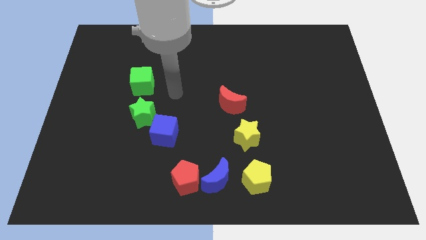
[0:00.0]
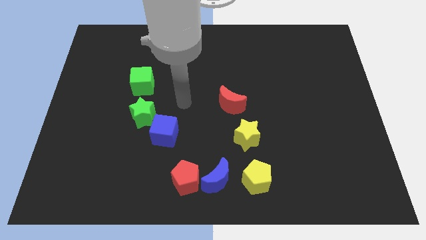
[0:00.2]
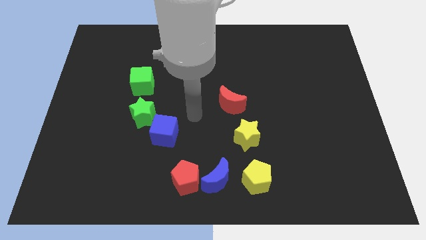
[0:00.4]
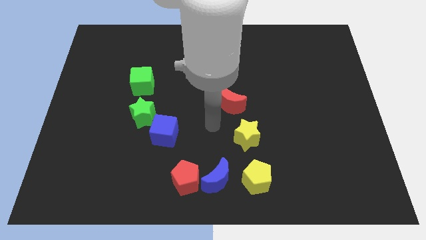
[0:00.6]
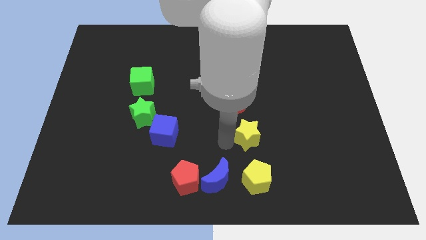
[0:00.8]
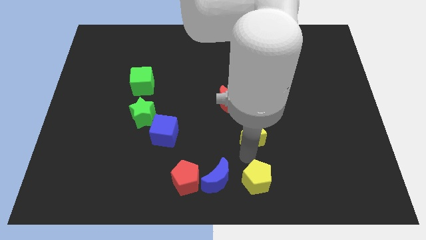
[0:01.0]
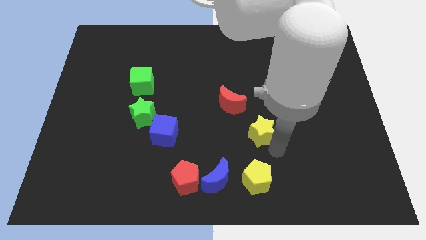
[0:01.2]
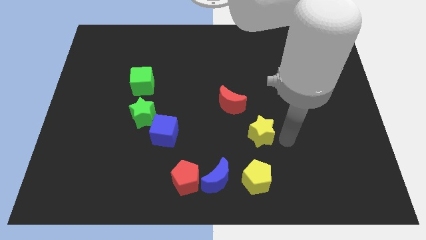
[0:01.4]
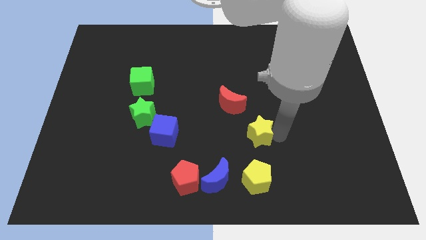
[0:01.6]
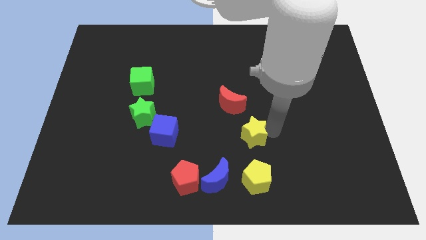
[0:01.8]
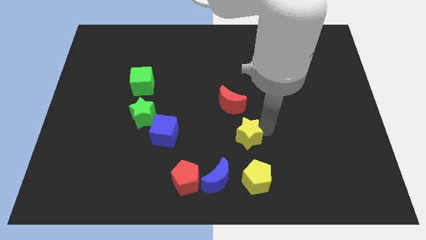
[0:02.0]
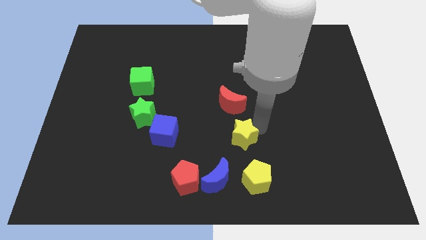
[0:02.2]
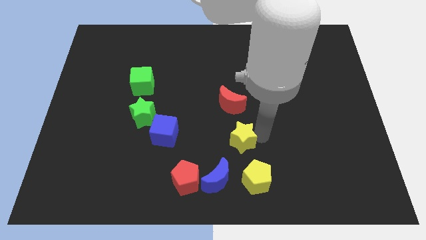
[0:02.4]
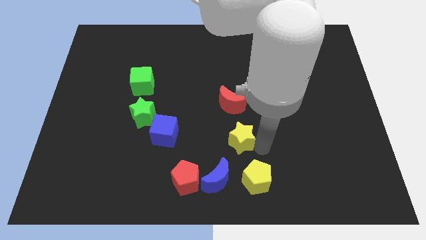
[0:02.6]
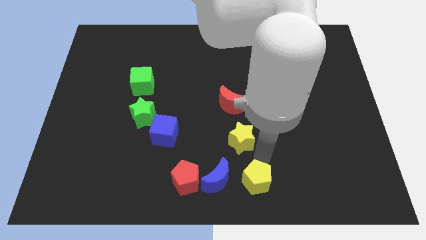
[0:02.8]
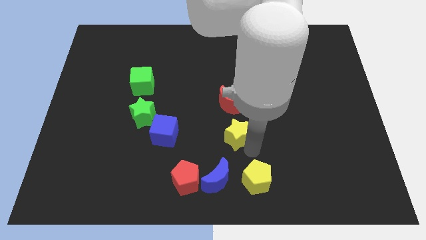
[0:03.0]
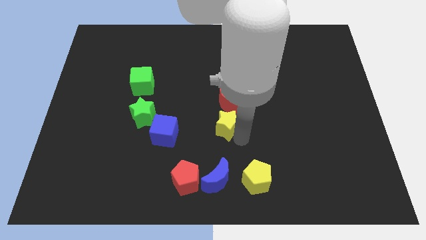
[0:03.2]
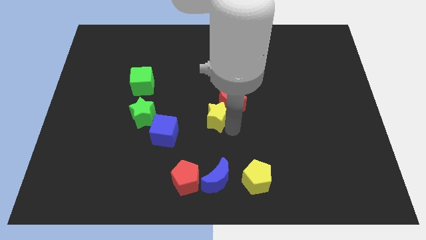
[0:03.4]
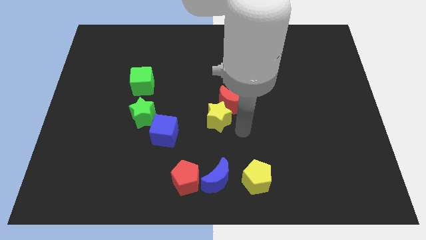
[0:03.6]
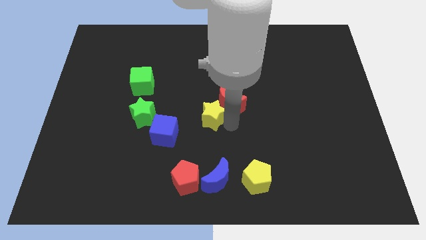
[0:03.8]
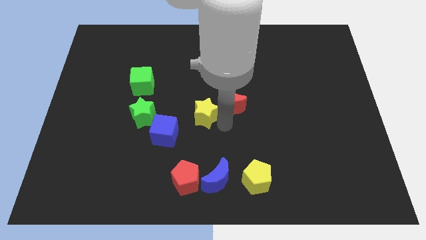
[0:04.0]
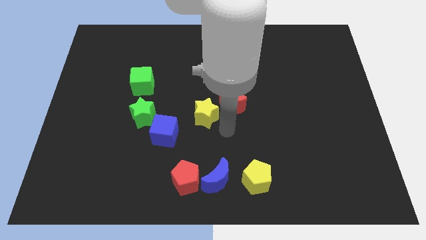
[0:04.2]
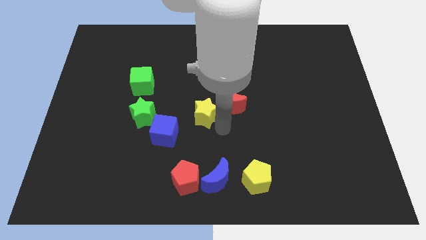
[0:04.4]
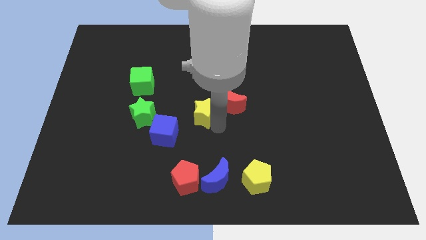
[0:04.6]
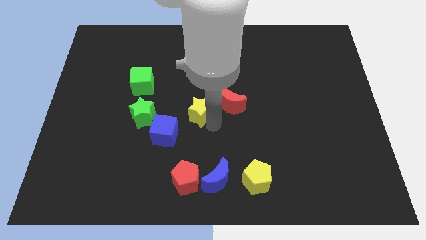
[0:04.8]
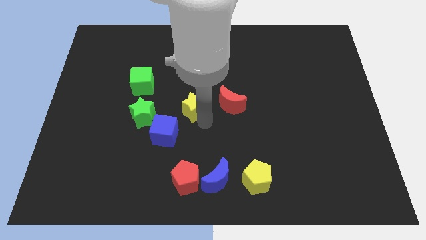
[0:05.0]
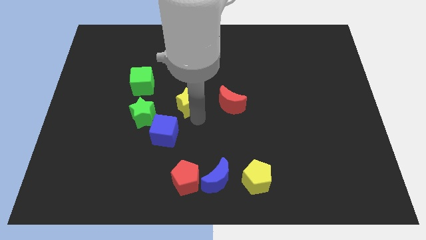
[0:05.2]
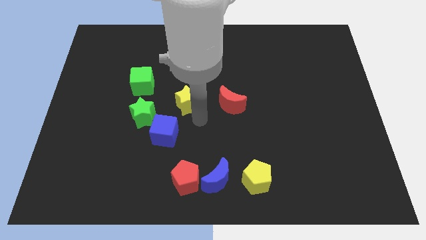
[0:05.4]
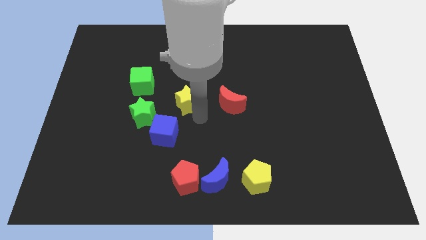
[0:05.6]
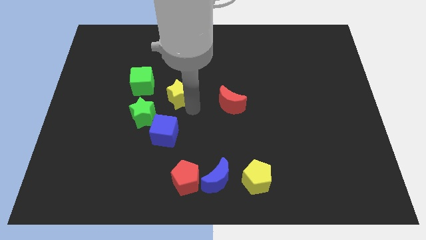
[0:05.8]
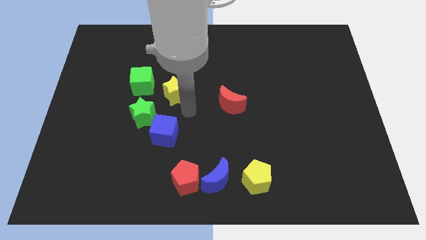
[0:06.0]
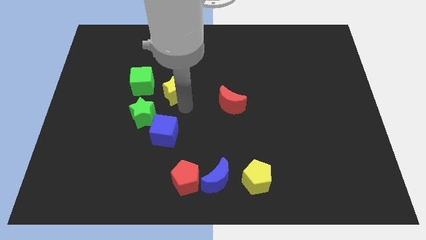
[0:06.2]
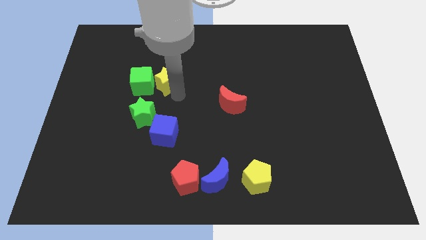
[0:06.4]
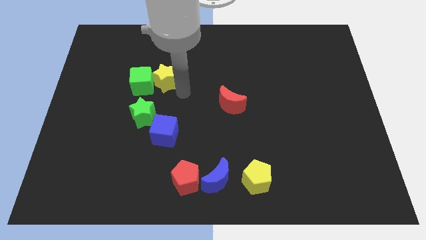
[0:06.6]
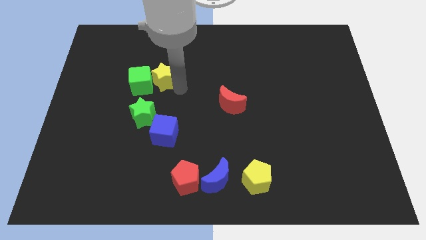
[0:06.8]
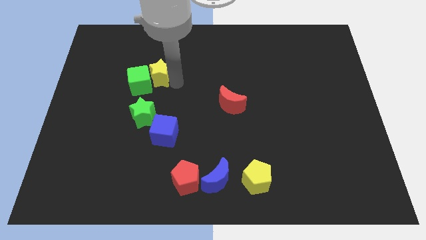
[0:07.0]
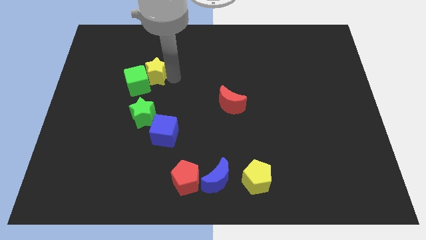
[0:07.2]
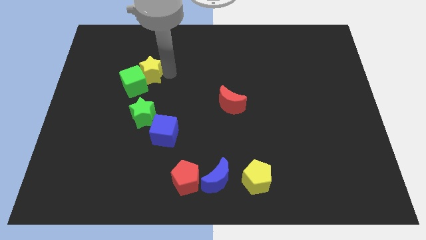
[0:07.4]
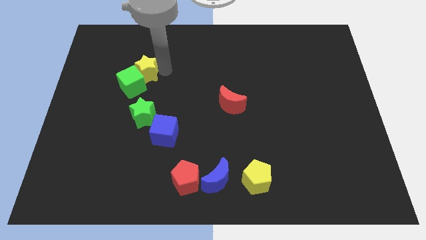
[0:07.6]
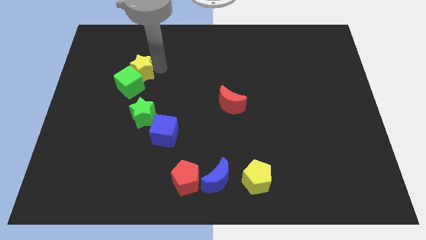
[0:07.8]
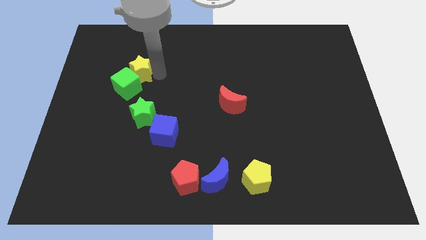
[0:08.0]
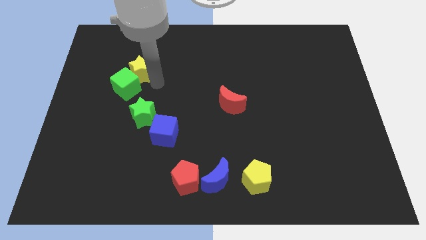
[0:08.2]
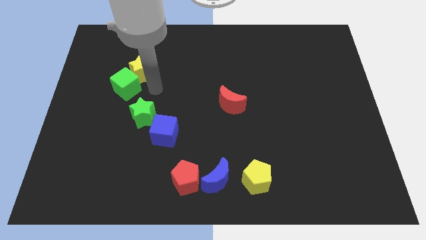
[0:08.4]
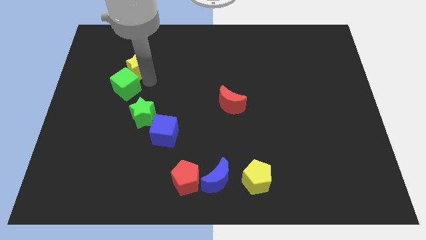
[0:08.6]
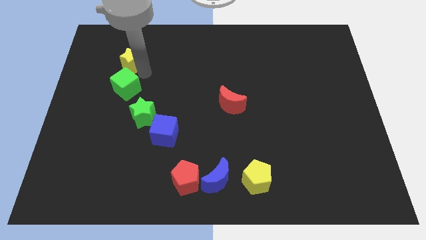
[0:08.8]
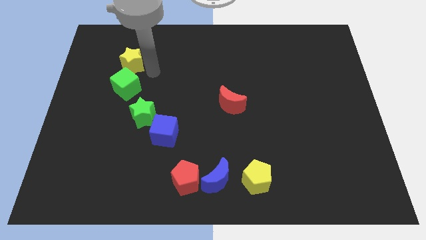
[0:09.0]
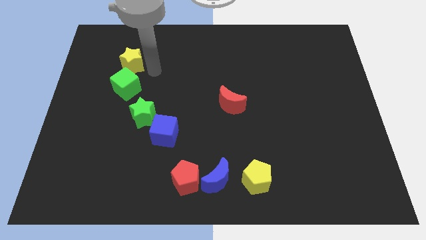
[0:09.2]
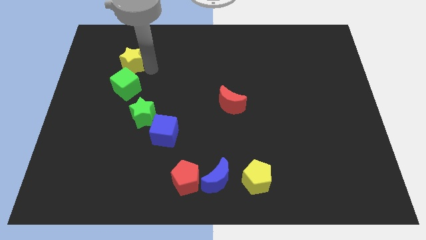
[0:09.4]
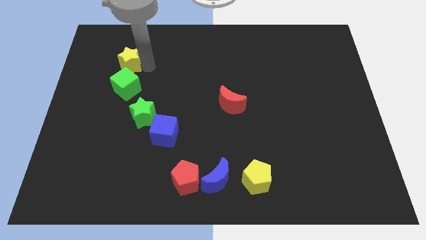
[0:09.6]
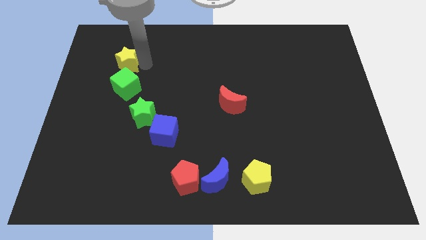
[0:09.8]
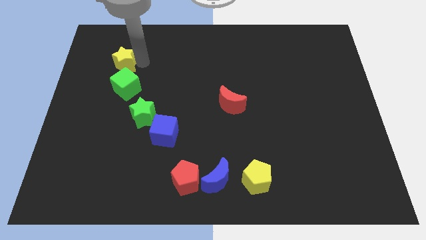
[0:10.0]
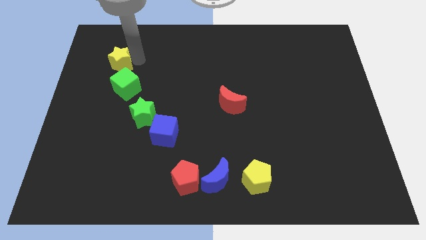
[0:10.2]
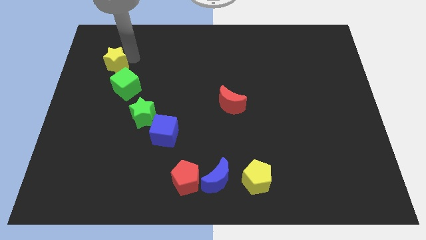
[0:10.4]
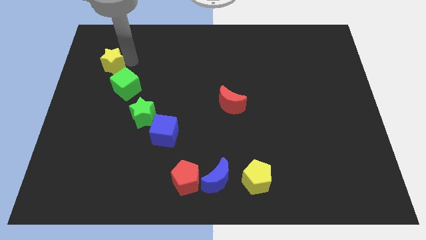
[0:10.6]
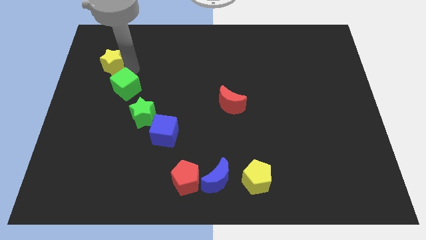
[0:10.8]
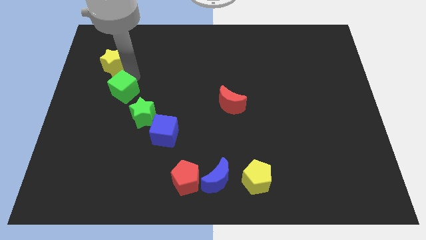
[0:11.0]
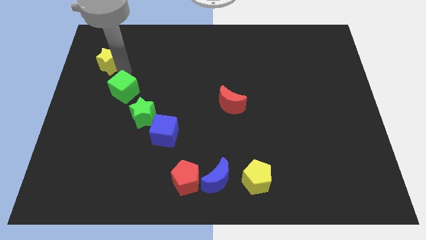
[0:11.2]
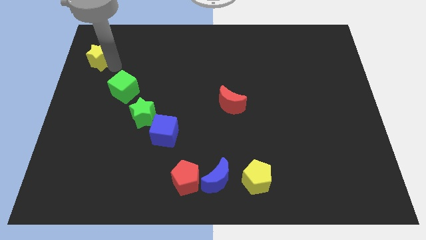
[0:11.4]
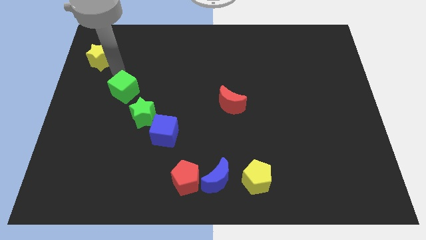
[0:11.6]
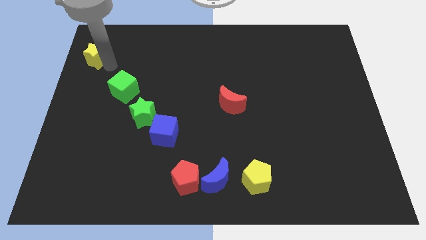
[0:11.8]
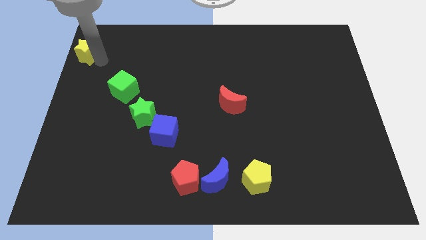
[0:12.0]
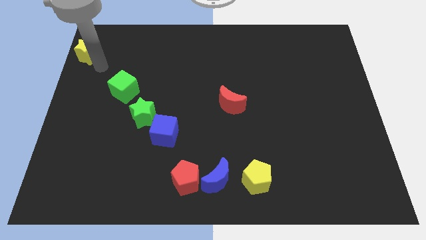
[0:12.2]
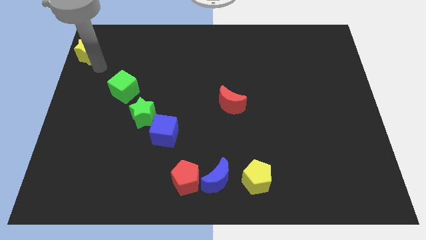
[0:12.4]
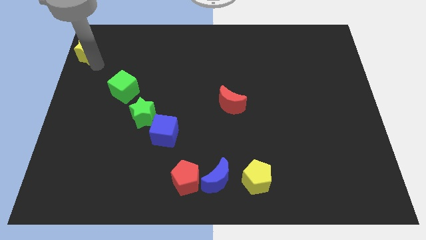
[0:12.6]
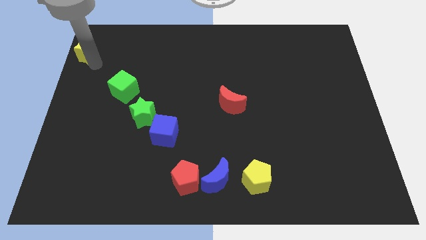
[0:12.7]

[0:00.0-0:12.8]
slide the yellow star to the top left of the board

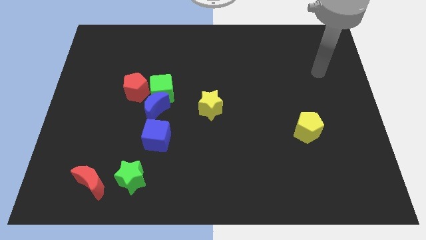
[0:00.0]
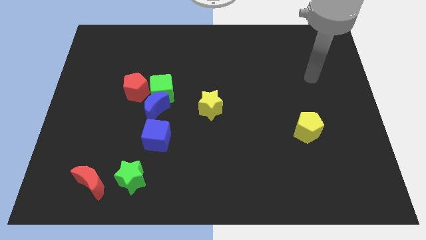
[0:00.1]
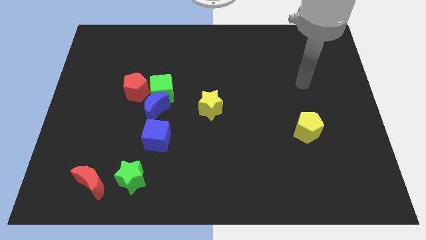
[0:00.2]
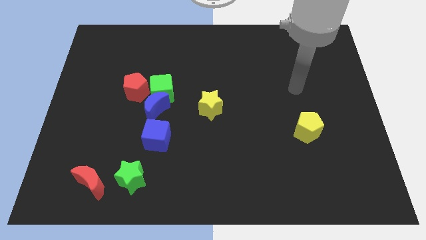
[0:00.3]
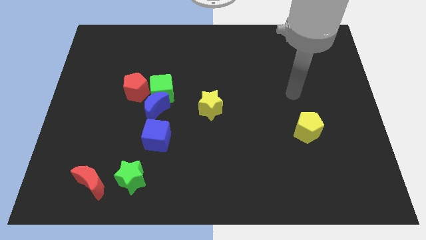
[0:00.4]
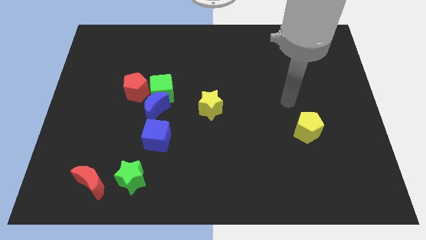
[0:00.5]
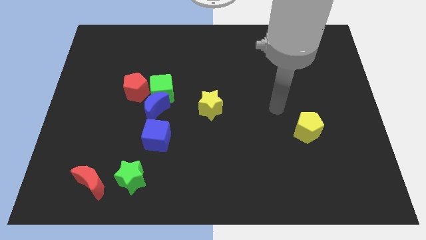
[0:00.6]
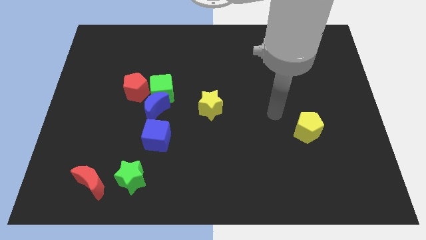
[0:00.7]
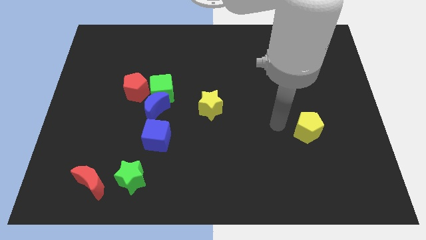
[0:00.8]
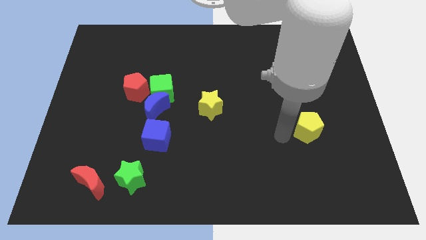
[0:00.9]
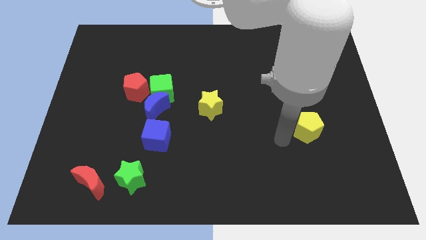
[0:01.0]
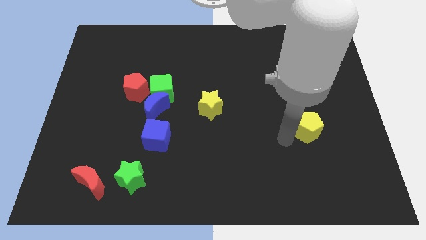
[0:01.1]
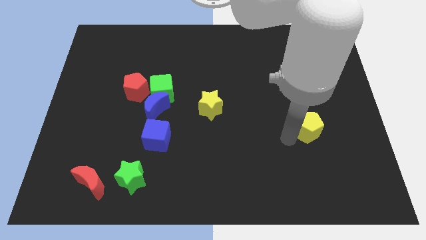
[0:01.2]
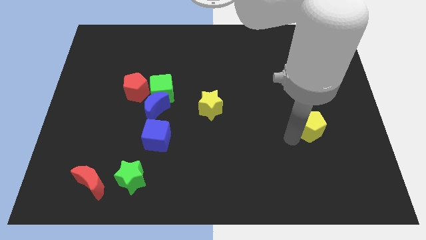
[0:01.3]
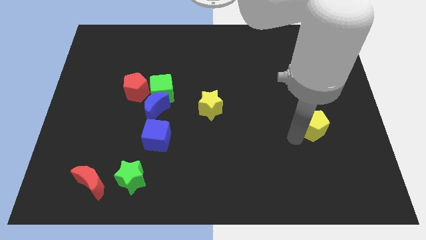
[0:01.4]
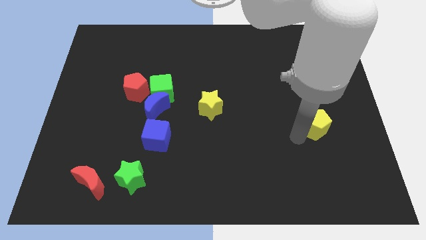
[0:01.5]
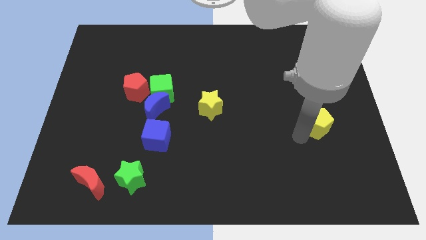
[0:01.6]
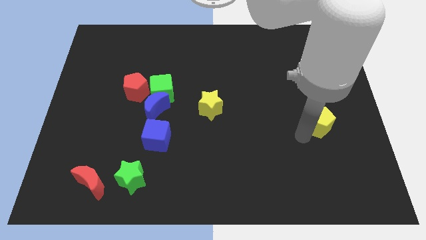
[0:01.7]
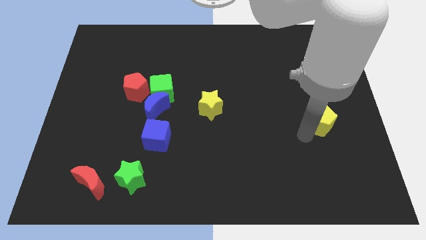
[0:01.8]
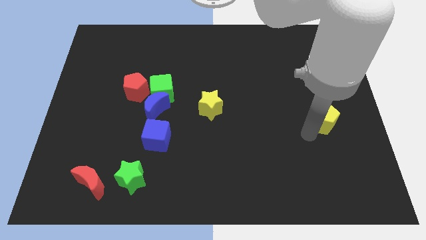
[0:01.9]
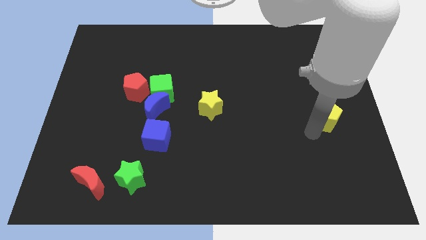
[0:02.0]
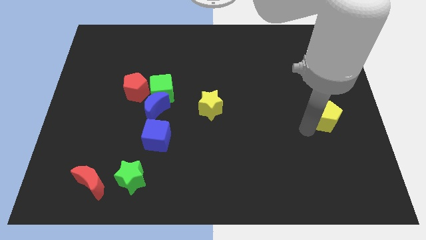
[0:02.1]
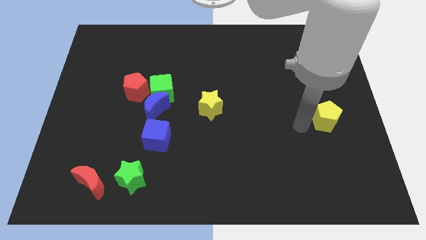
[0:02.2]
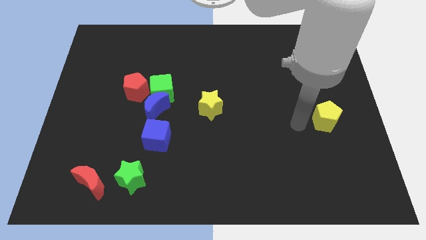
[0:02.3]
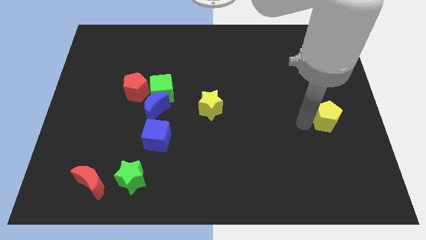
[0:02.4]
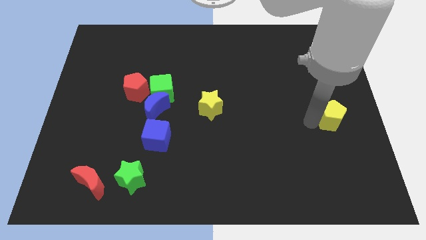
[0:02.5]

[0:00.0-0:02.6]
push the yellow pentagon to the center right
